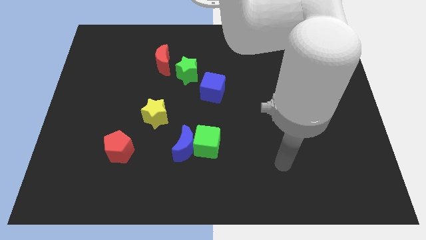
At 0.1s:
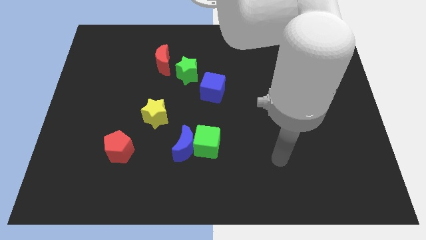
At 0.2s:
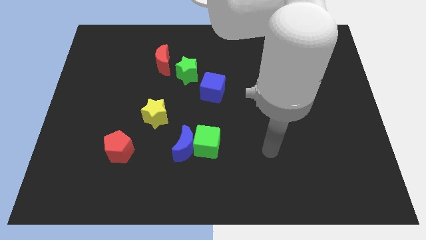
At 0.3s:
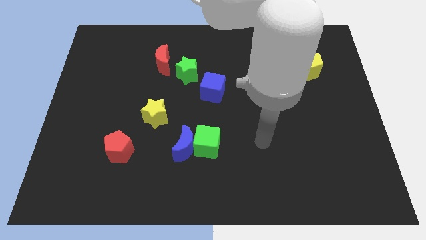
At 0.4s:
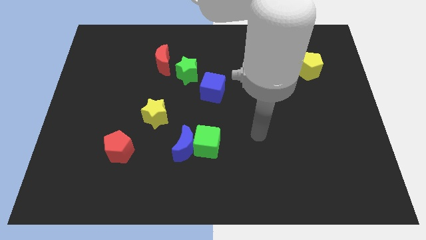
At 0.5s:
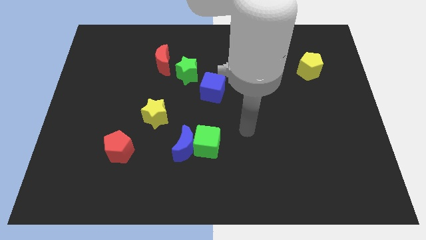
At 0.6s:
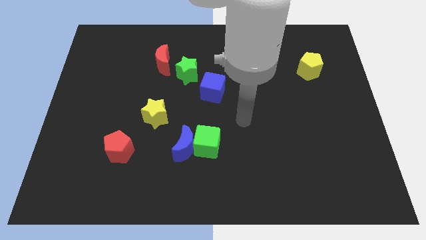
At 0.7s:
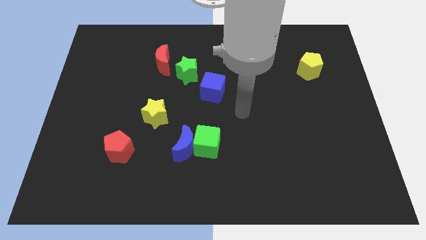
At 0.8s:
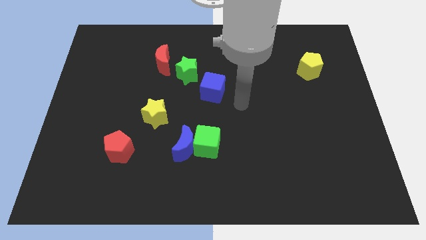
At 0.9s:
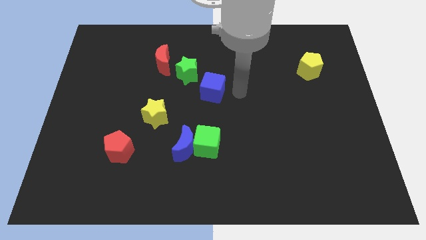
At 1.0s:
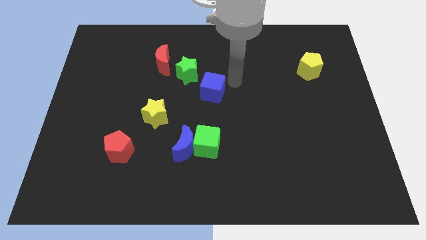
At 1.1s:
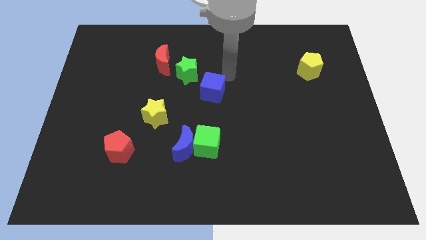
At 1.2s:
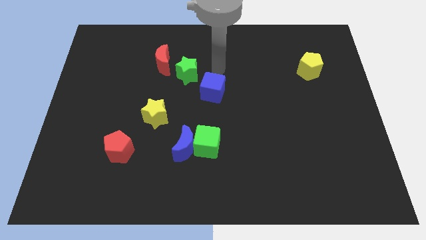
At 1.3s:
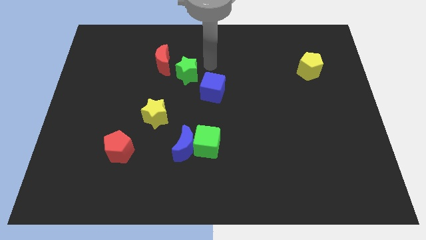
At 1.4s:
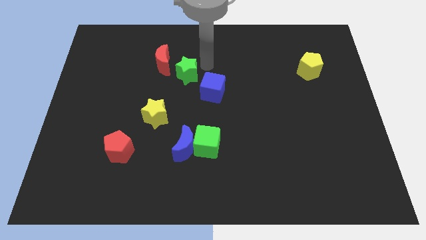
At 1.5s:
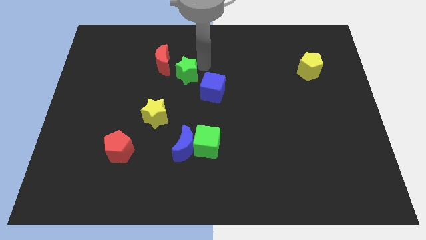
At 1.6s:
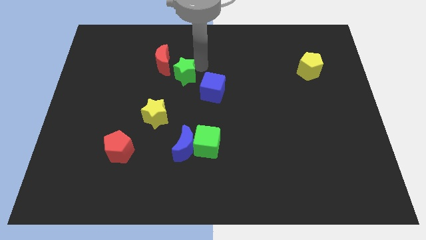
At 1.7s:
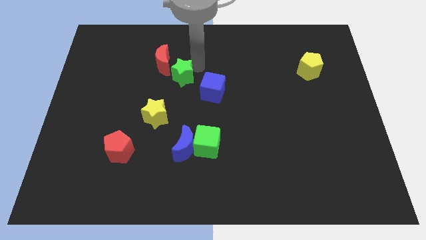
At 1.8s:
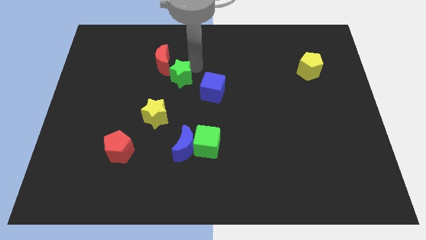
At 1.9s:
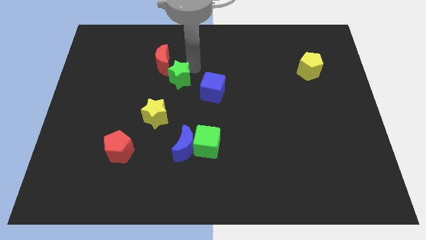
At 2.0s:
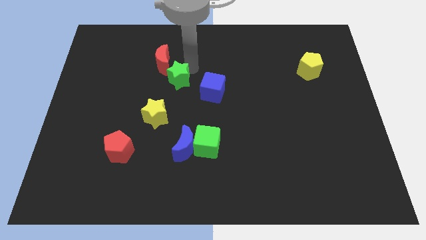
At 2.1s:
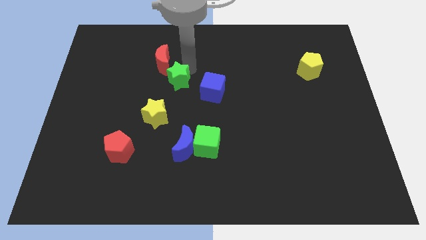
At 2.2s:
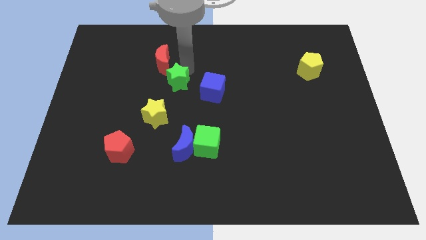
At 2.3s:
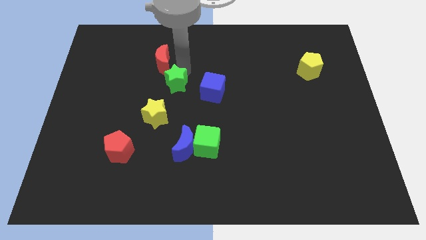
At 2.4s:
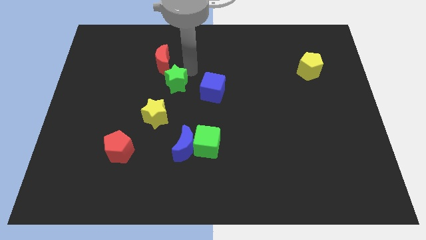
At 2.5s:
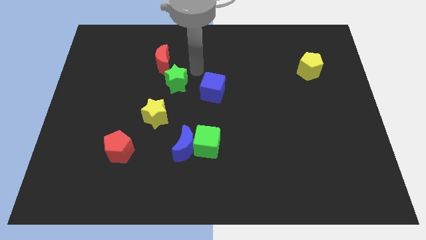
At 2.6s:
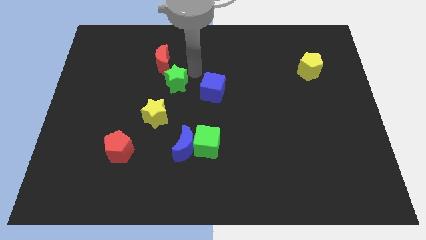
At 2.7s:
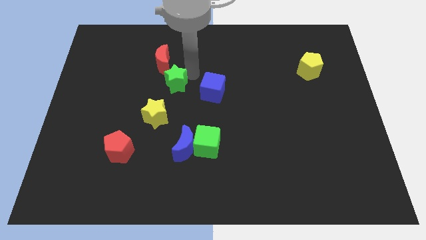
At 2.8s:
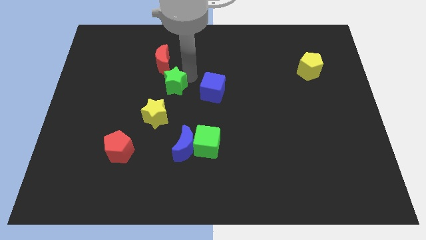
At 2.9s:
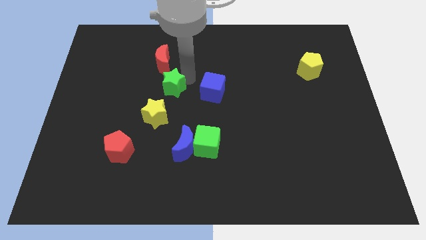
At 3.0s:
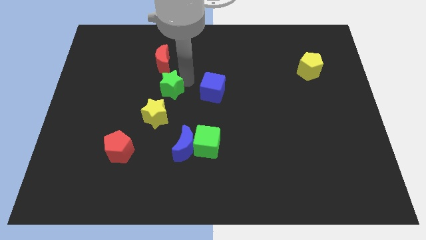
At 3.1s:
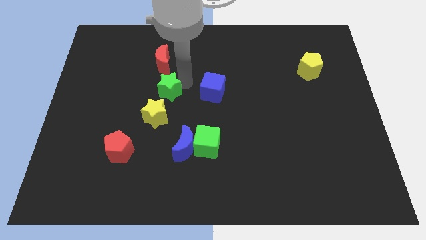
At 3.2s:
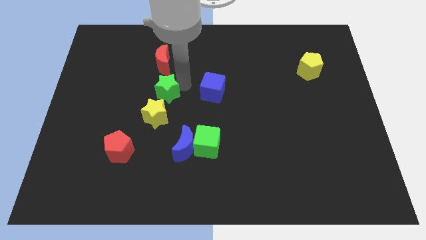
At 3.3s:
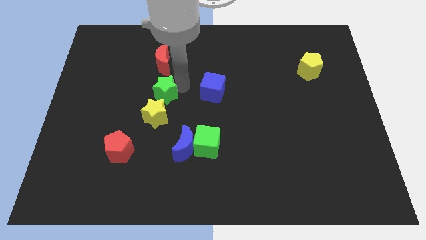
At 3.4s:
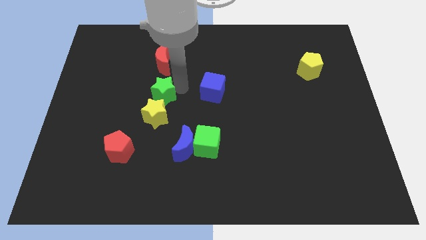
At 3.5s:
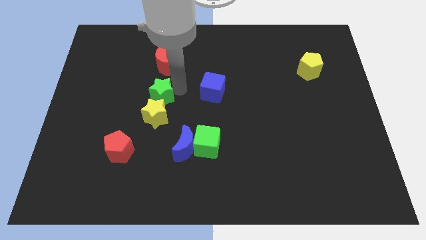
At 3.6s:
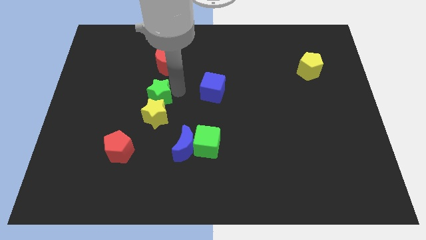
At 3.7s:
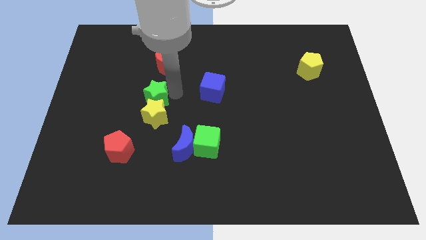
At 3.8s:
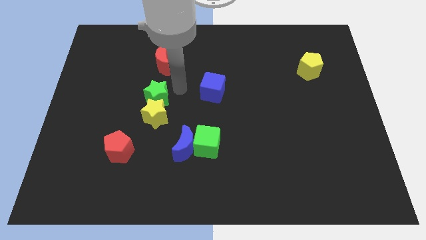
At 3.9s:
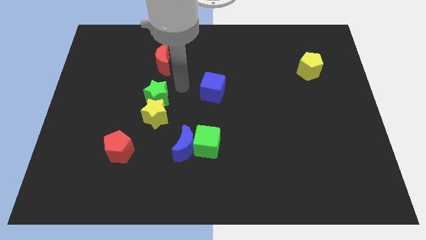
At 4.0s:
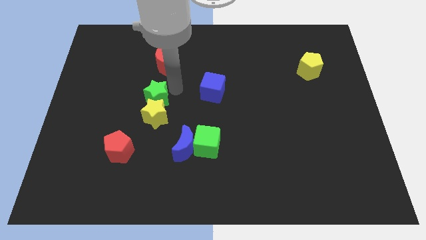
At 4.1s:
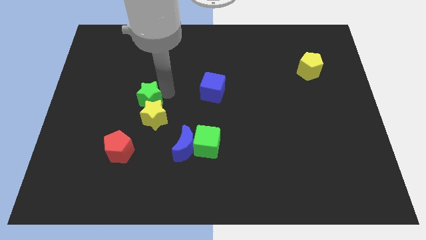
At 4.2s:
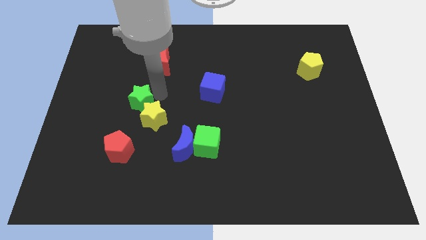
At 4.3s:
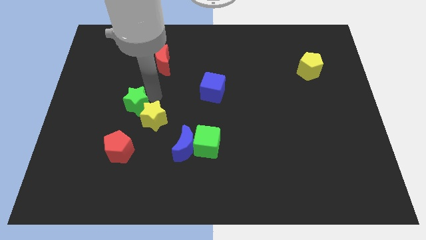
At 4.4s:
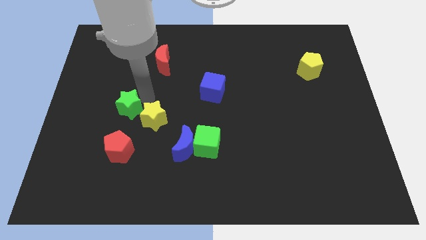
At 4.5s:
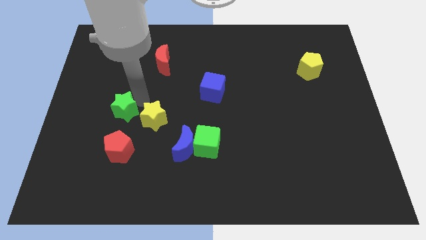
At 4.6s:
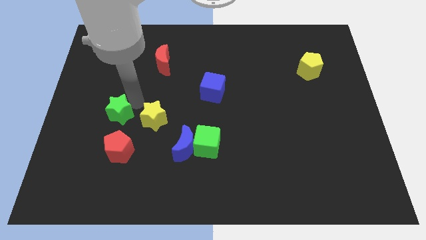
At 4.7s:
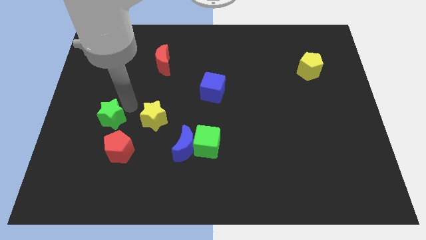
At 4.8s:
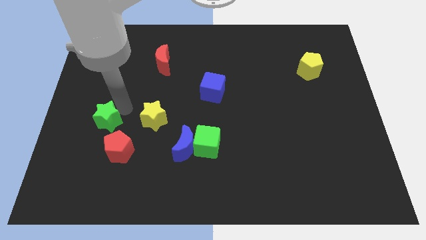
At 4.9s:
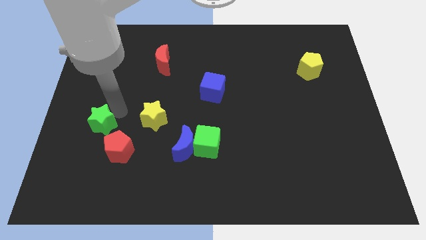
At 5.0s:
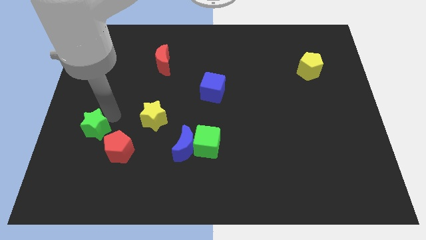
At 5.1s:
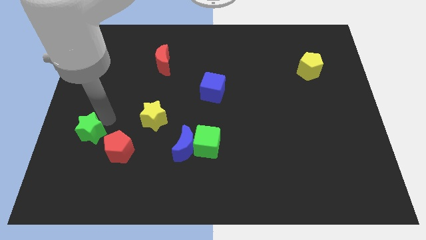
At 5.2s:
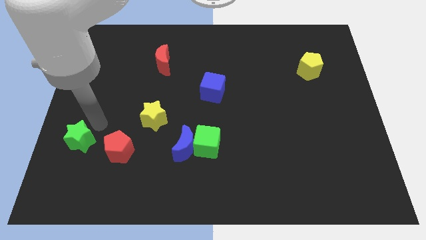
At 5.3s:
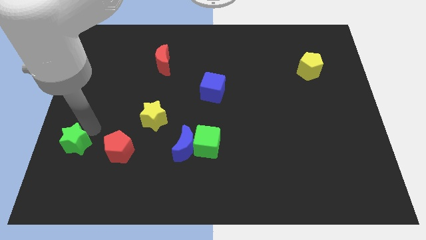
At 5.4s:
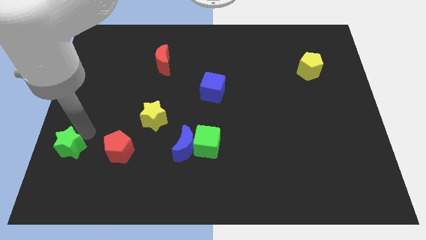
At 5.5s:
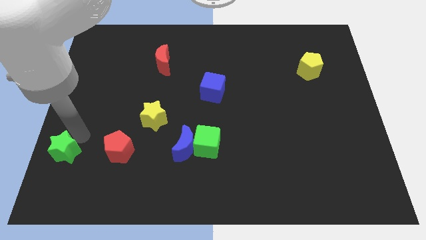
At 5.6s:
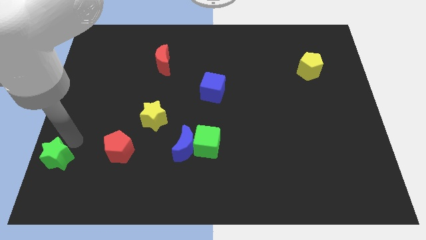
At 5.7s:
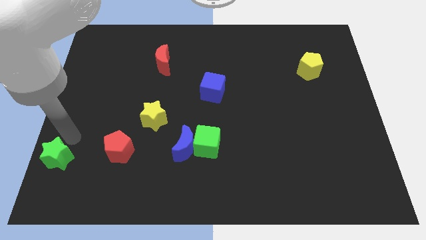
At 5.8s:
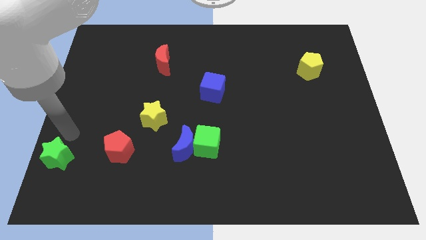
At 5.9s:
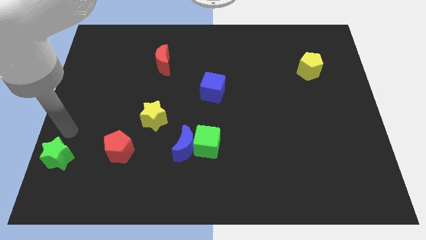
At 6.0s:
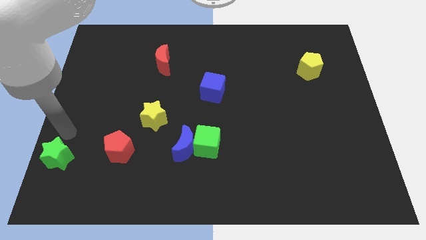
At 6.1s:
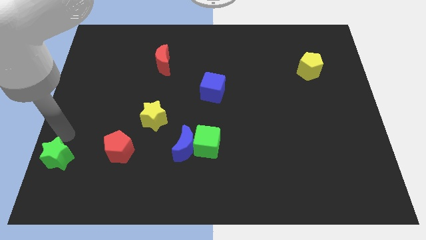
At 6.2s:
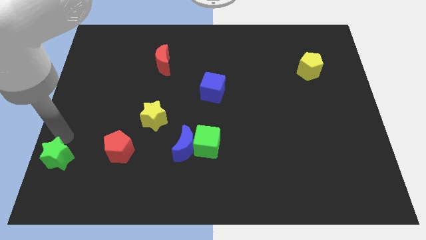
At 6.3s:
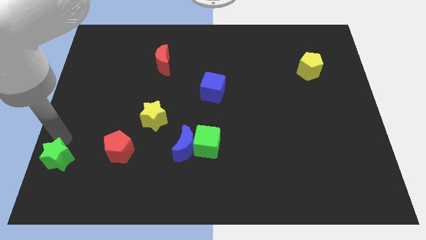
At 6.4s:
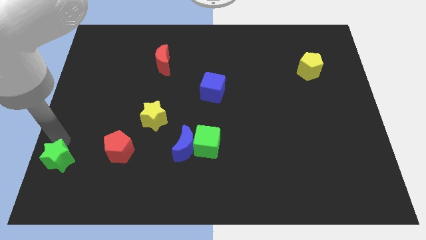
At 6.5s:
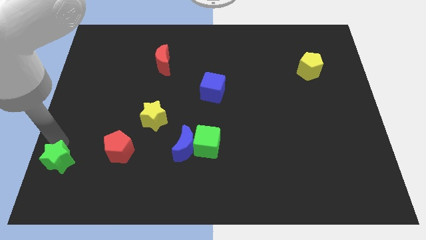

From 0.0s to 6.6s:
put the green star to the bottom left corner

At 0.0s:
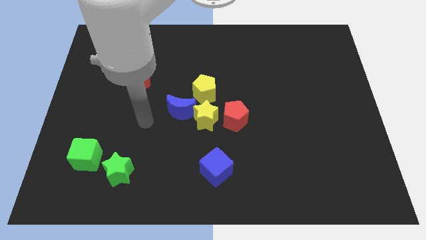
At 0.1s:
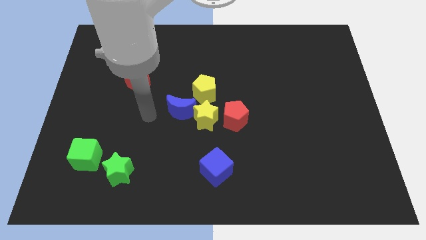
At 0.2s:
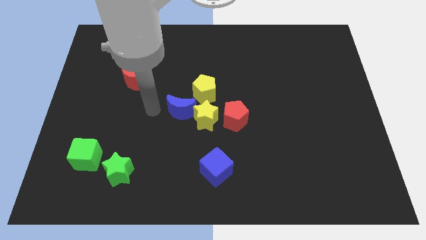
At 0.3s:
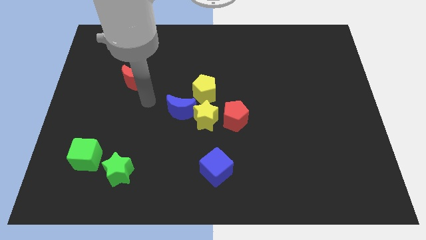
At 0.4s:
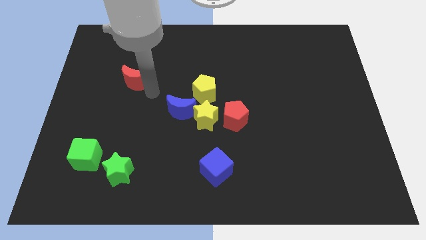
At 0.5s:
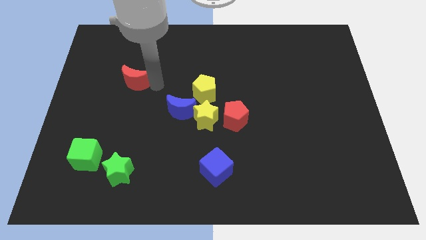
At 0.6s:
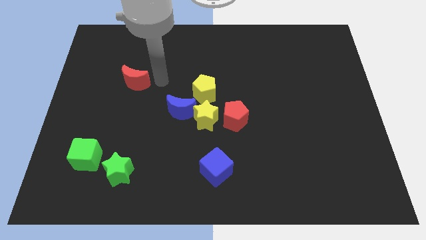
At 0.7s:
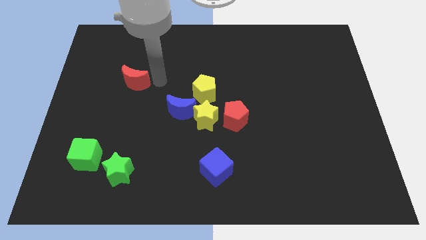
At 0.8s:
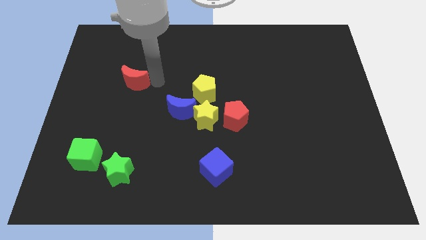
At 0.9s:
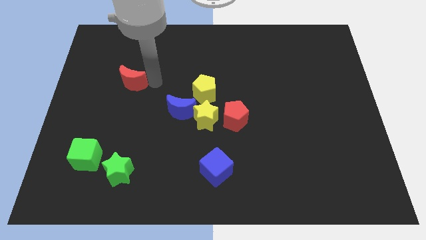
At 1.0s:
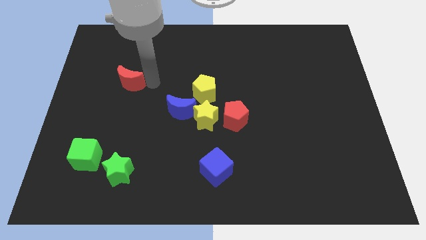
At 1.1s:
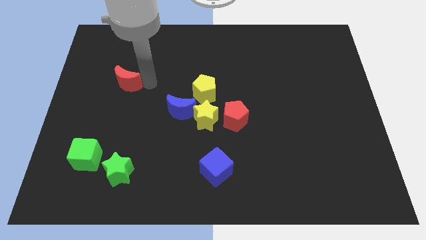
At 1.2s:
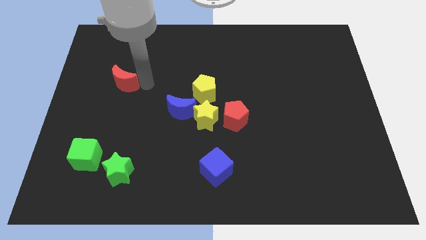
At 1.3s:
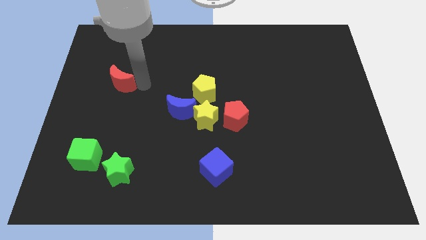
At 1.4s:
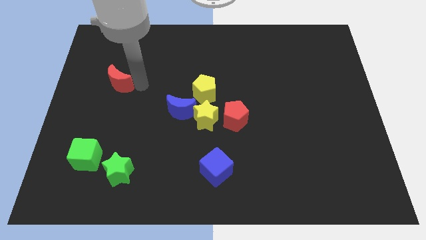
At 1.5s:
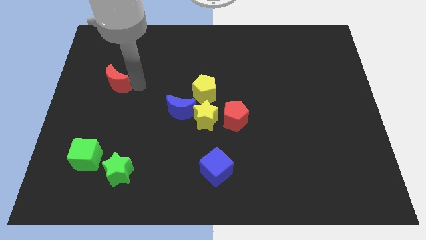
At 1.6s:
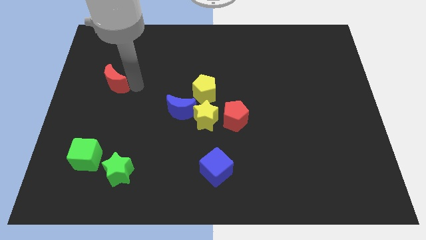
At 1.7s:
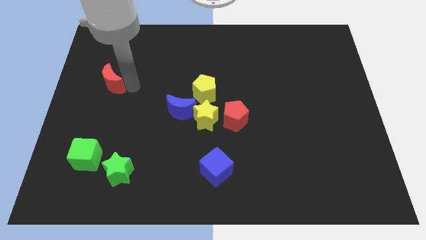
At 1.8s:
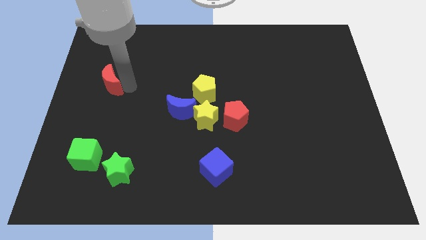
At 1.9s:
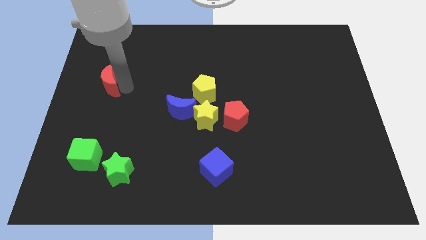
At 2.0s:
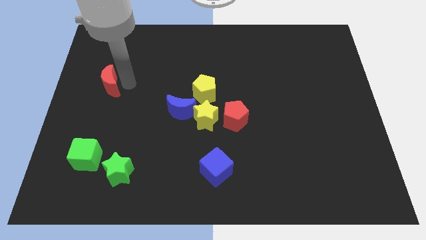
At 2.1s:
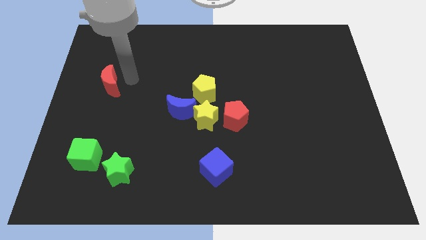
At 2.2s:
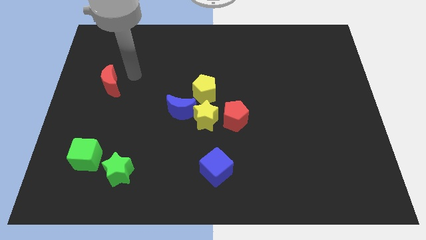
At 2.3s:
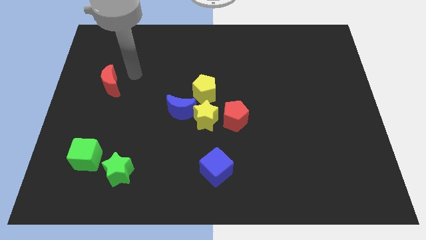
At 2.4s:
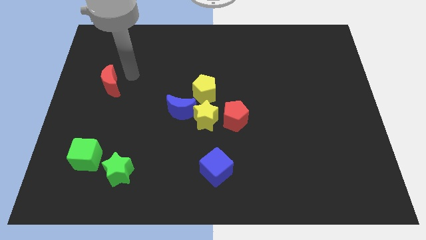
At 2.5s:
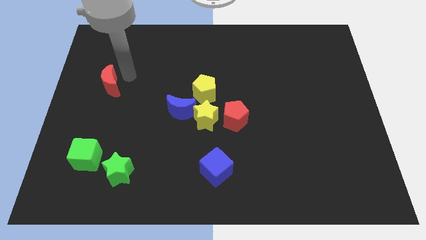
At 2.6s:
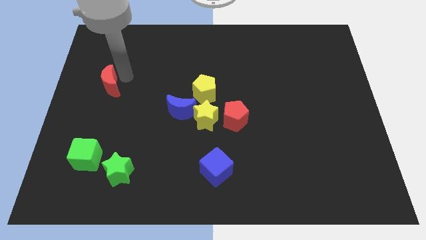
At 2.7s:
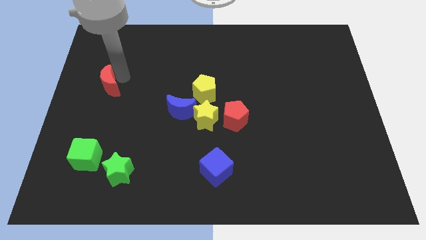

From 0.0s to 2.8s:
move the red moon to the left side of the board
